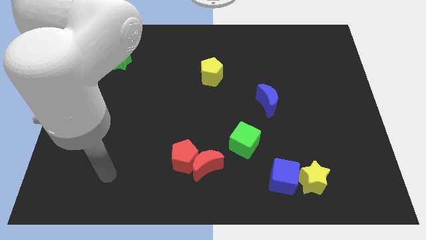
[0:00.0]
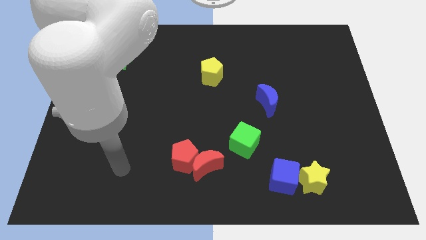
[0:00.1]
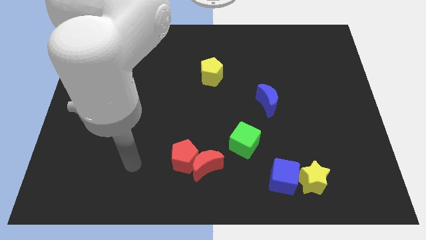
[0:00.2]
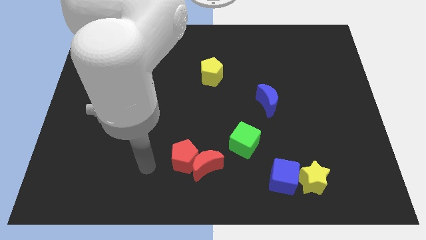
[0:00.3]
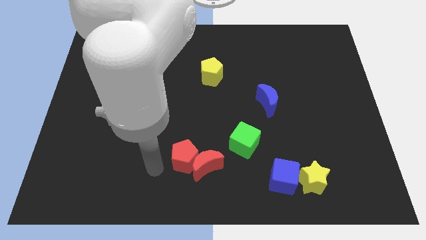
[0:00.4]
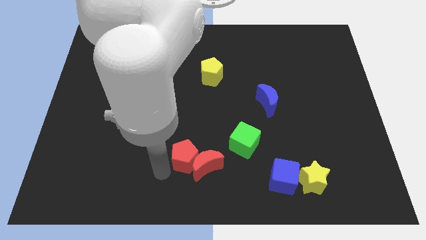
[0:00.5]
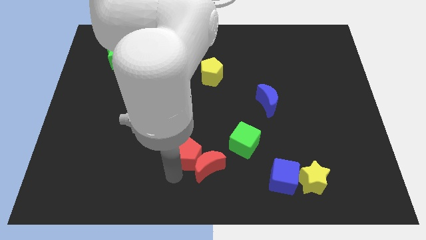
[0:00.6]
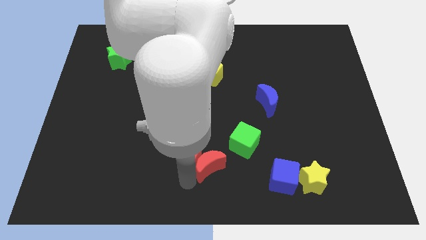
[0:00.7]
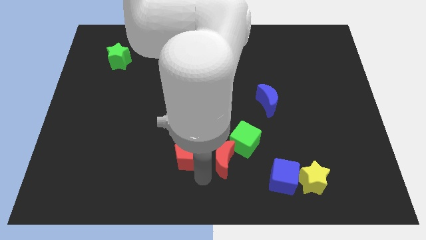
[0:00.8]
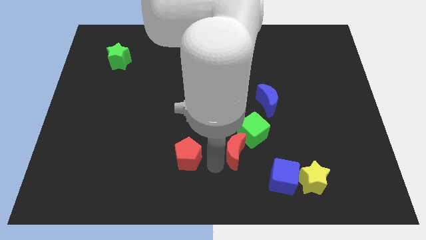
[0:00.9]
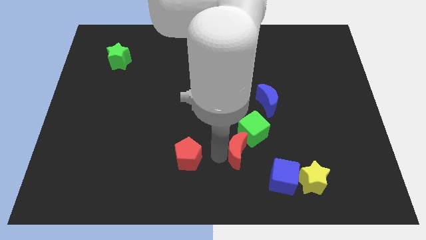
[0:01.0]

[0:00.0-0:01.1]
separate the red pentagon from the red moon

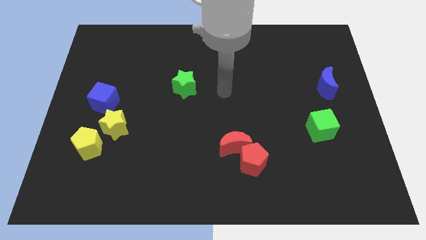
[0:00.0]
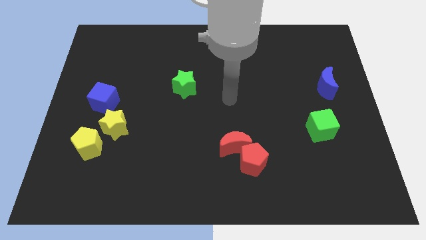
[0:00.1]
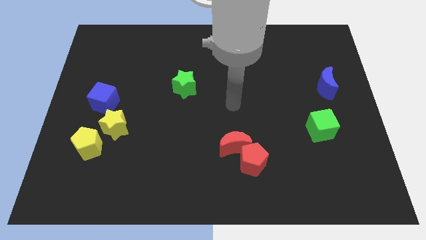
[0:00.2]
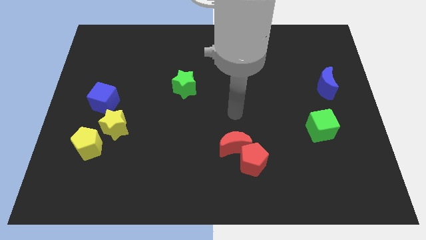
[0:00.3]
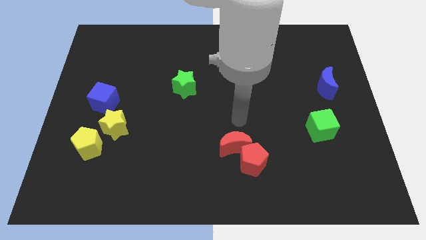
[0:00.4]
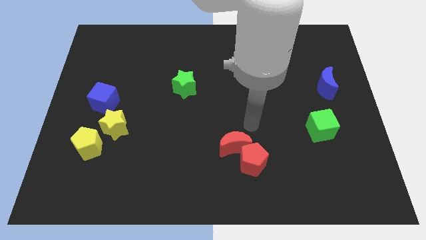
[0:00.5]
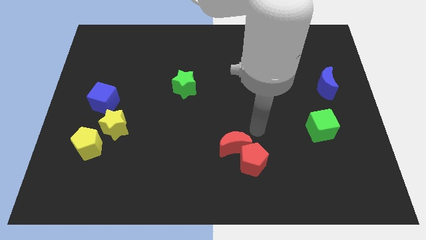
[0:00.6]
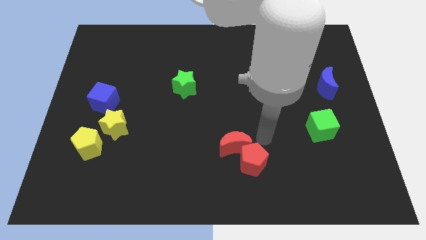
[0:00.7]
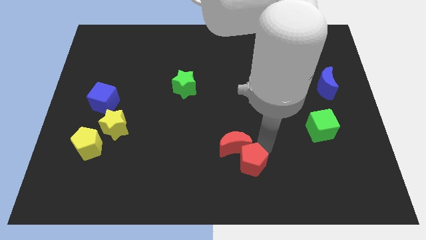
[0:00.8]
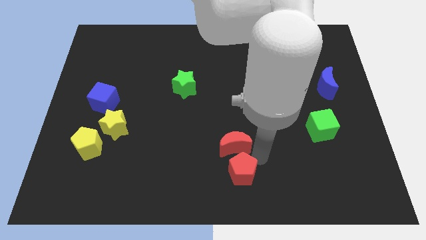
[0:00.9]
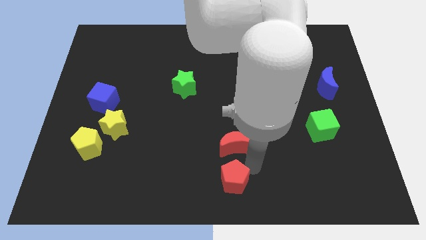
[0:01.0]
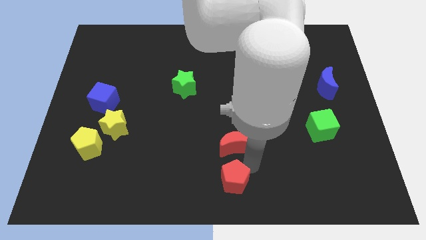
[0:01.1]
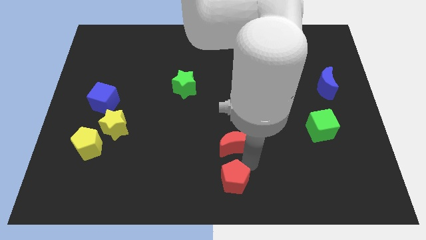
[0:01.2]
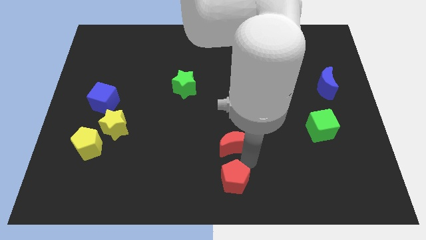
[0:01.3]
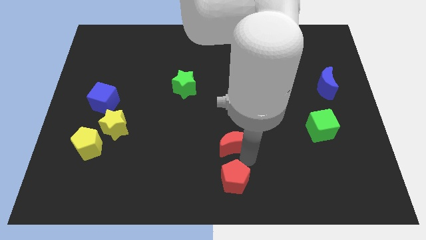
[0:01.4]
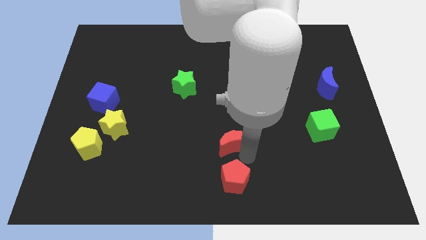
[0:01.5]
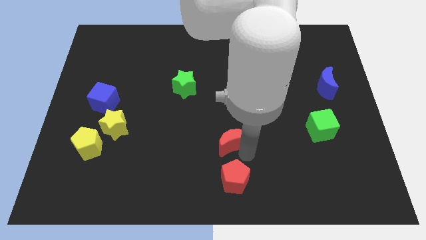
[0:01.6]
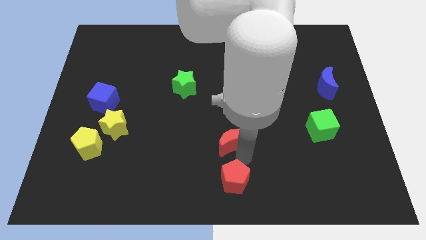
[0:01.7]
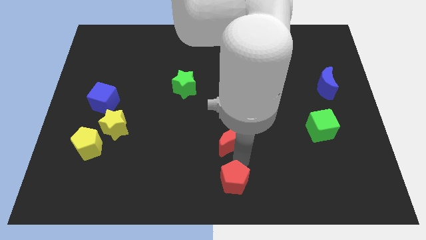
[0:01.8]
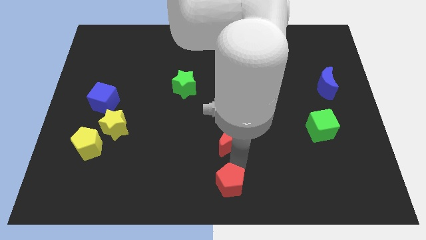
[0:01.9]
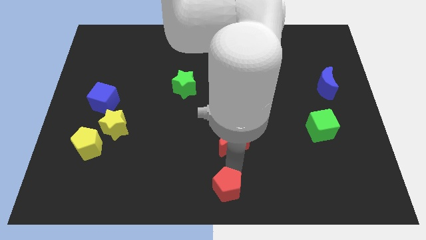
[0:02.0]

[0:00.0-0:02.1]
pull the red moon apart from the red pentagon

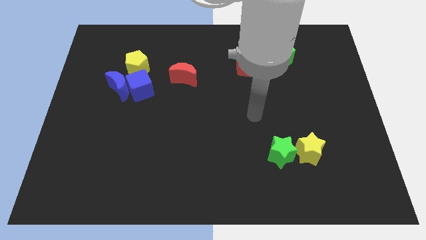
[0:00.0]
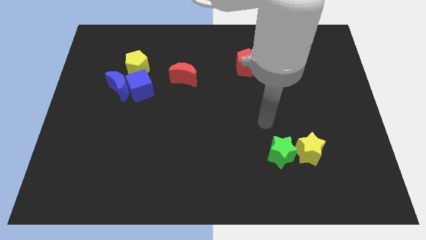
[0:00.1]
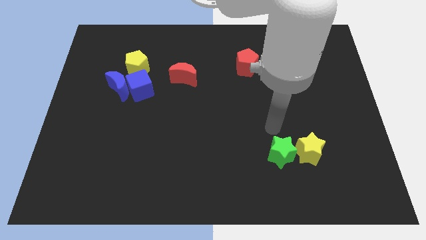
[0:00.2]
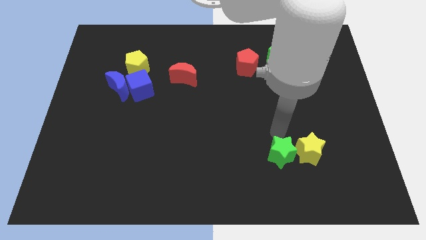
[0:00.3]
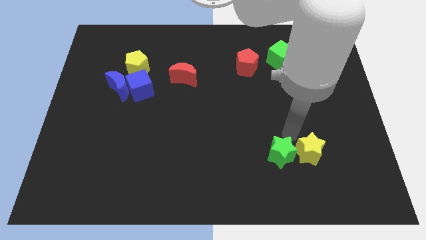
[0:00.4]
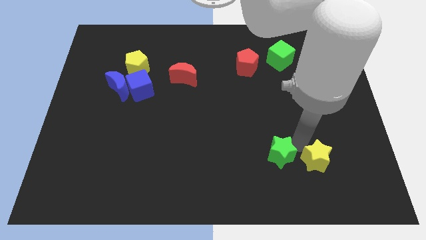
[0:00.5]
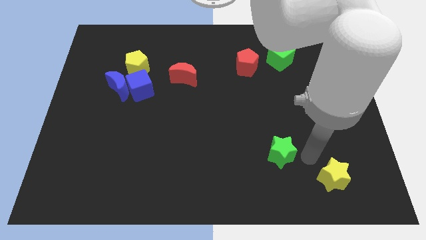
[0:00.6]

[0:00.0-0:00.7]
pull the green star apart from the yellow star

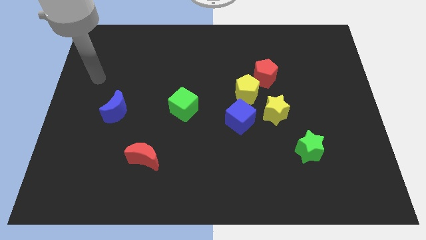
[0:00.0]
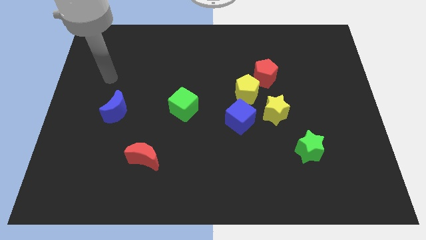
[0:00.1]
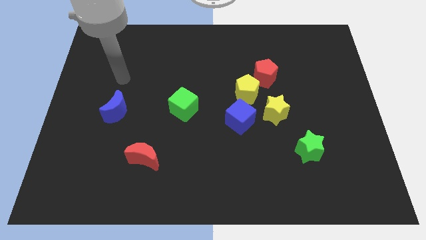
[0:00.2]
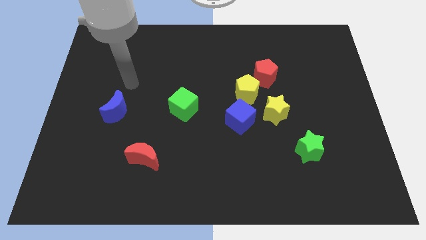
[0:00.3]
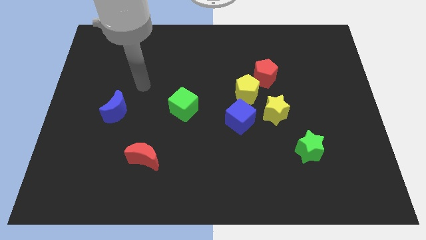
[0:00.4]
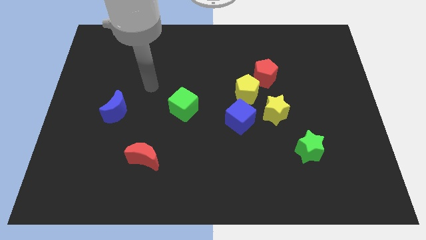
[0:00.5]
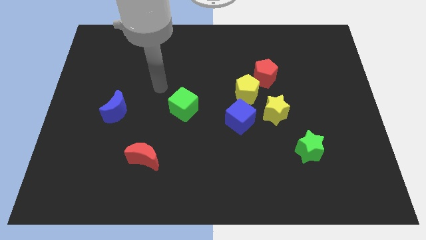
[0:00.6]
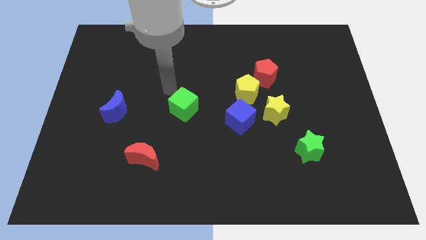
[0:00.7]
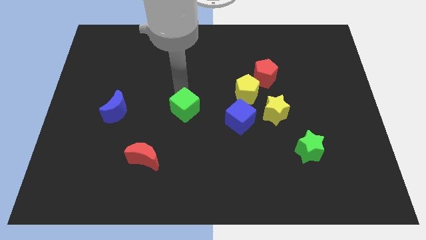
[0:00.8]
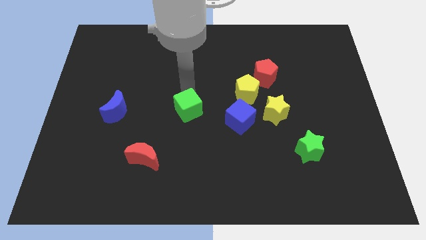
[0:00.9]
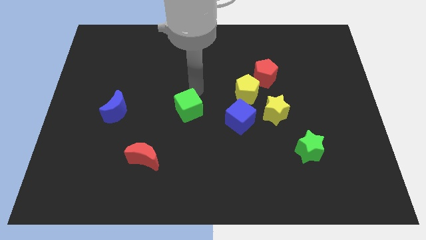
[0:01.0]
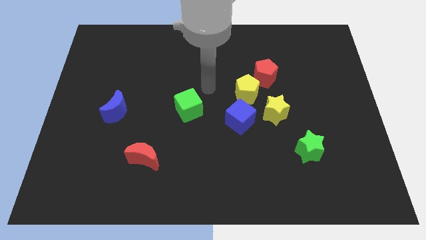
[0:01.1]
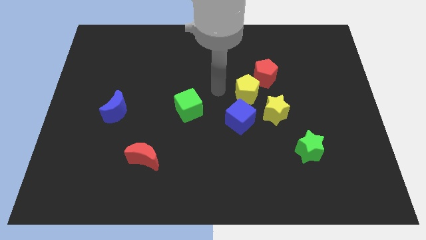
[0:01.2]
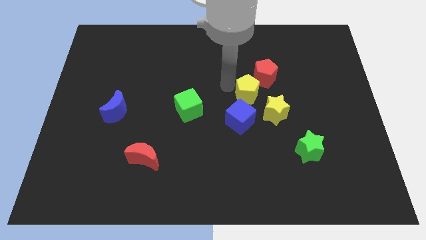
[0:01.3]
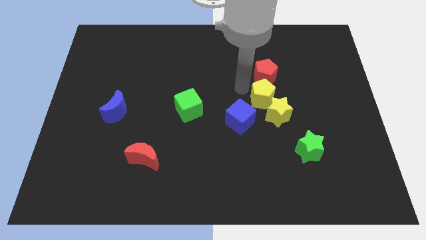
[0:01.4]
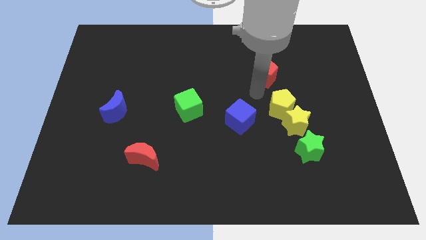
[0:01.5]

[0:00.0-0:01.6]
pull the red pentagon apart from the yellow pentagon

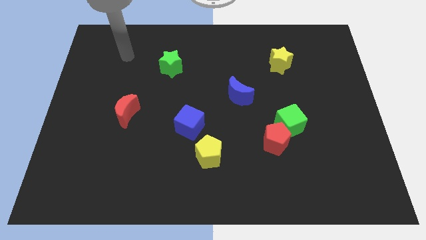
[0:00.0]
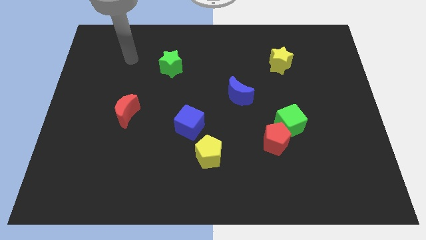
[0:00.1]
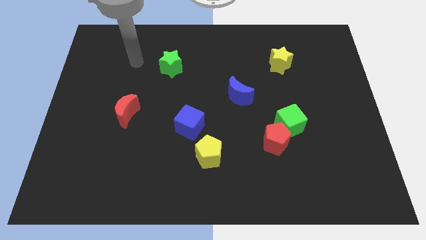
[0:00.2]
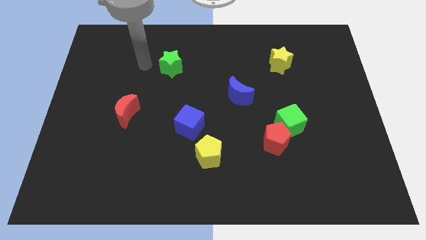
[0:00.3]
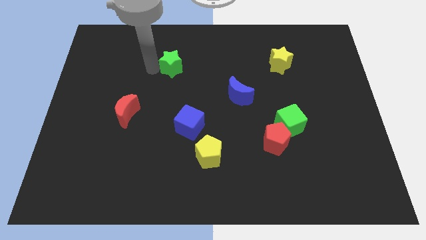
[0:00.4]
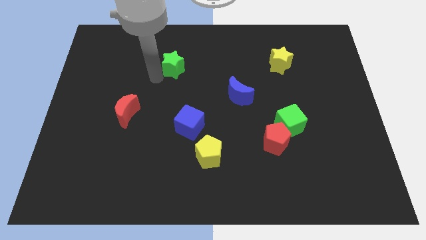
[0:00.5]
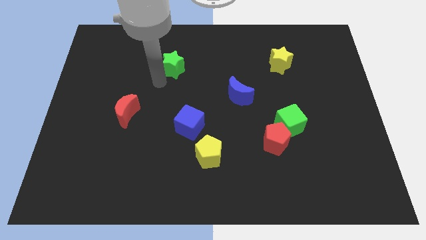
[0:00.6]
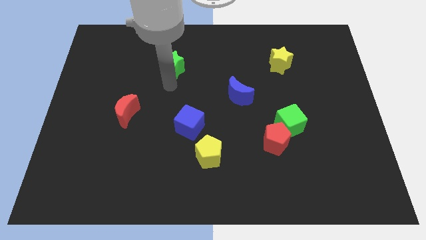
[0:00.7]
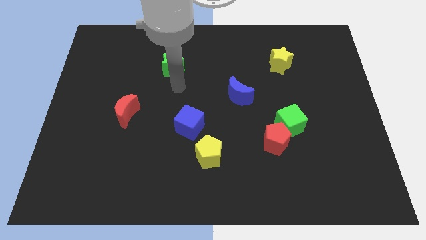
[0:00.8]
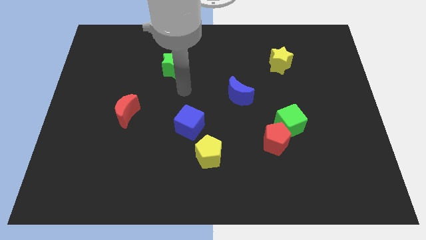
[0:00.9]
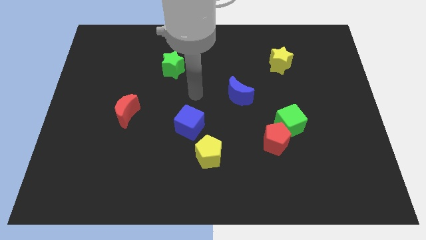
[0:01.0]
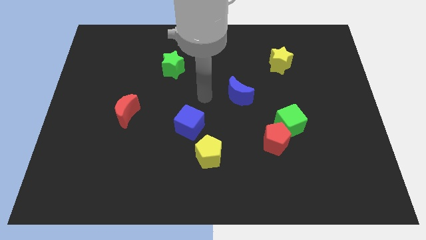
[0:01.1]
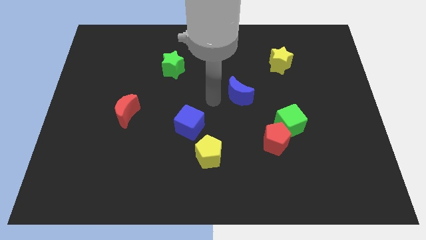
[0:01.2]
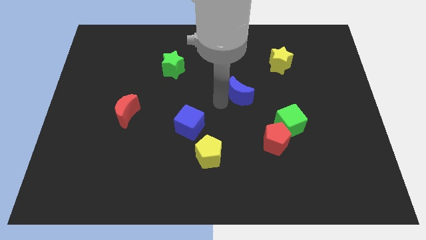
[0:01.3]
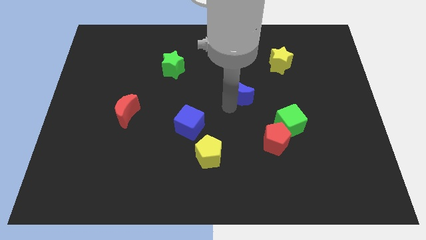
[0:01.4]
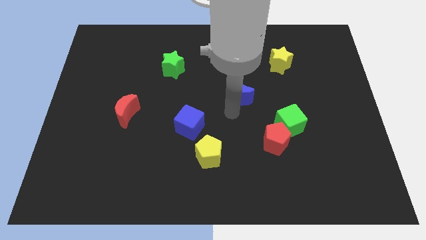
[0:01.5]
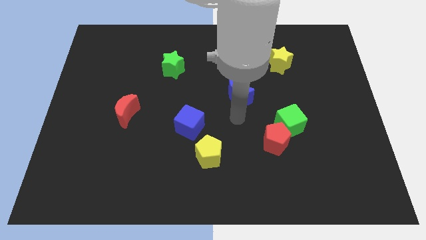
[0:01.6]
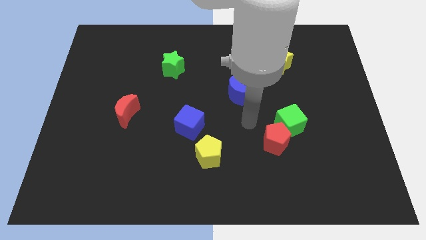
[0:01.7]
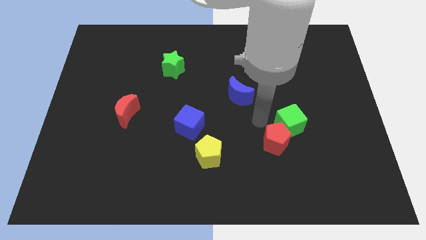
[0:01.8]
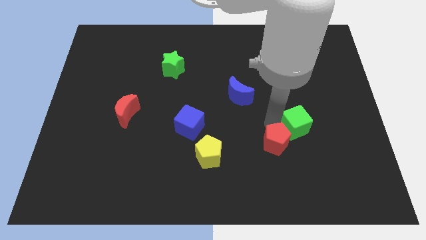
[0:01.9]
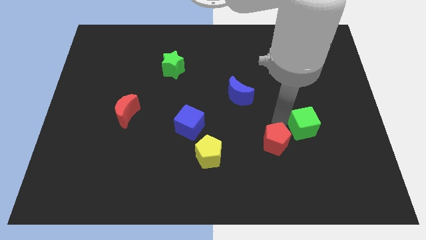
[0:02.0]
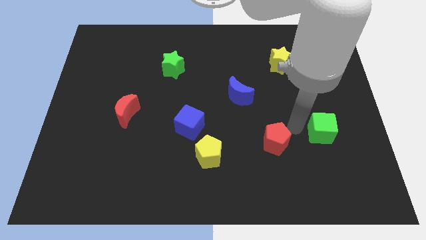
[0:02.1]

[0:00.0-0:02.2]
pull the red pentagon apart from the green cube

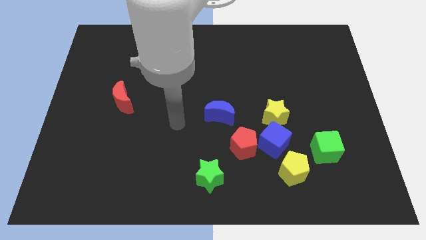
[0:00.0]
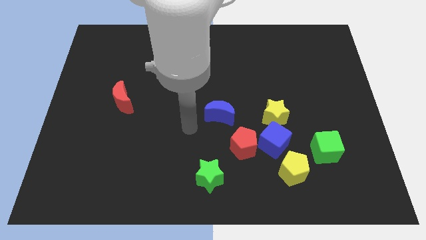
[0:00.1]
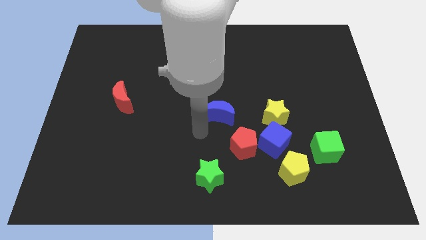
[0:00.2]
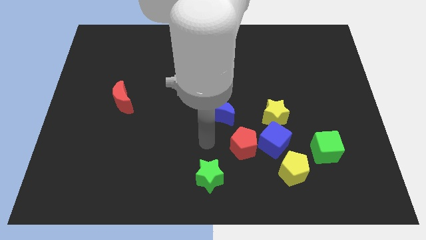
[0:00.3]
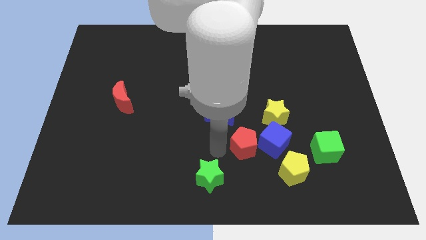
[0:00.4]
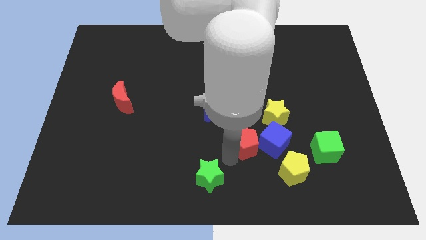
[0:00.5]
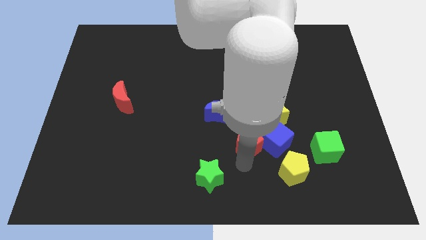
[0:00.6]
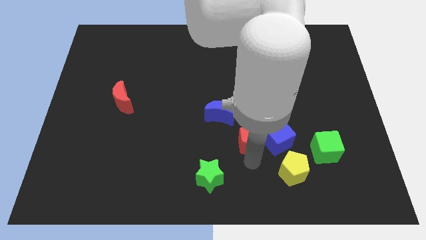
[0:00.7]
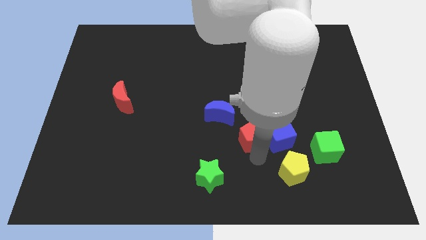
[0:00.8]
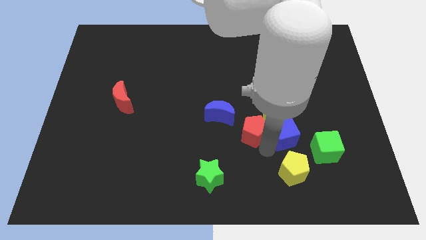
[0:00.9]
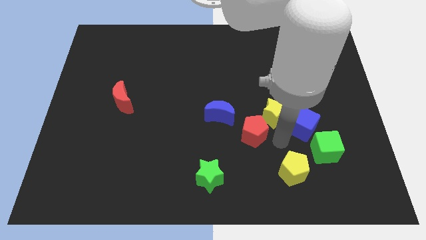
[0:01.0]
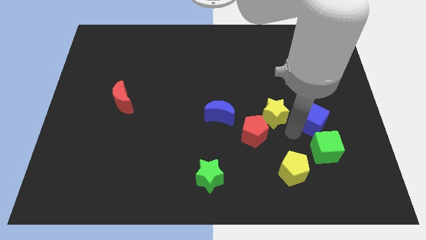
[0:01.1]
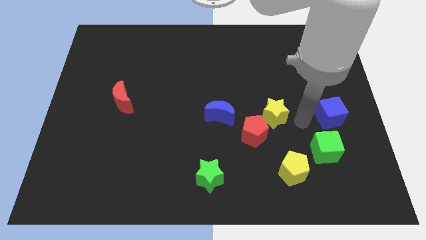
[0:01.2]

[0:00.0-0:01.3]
separate the yellow star from the blue cube

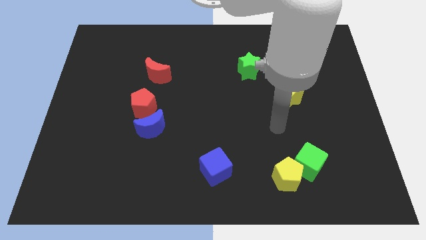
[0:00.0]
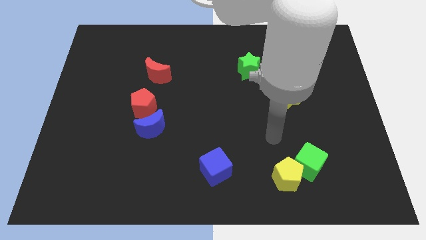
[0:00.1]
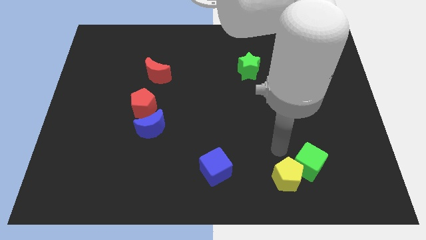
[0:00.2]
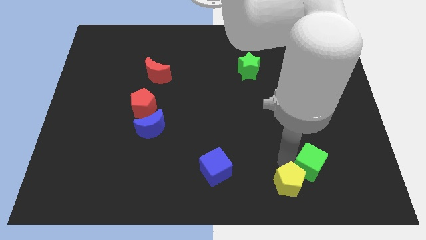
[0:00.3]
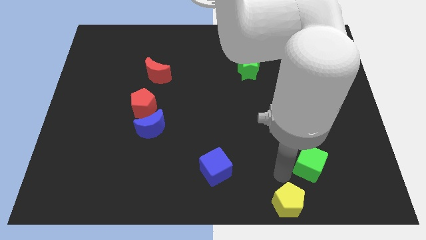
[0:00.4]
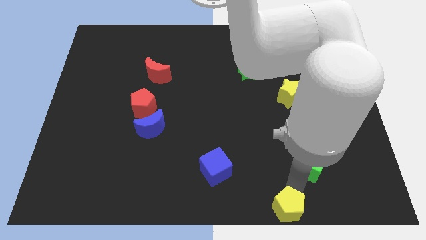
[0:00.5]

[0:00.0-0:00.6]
move the green cube away from the yellow pentagon
